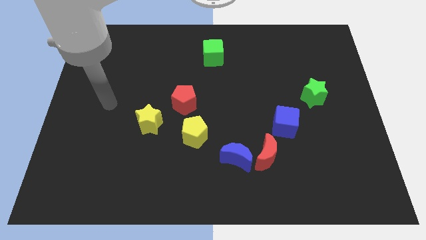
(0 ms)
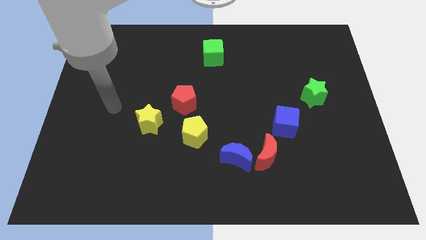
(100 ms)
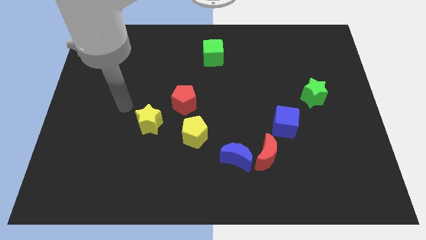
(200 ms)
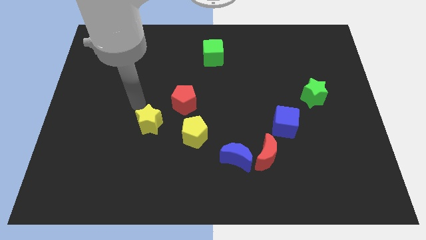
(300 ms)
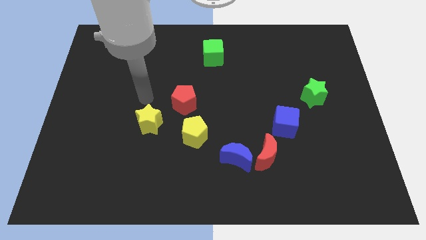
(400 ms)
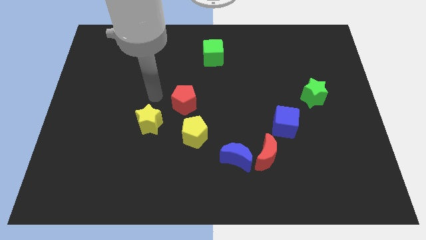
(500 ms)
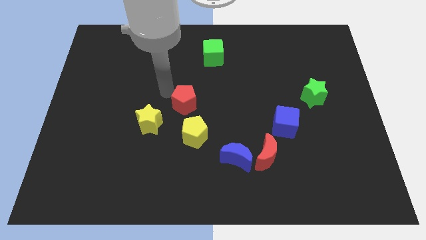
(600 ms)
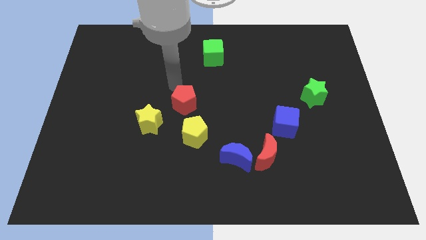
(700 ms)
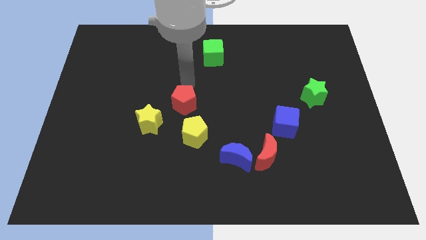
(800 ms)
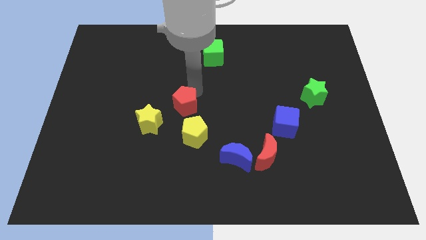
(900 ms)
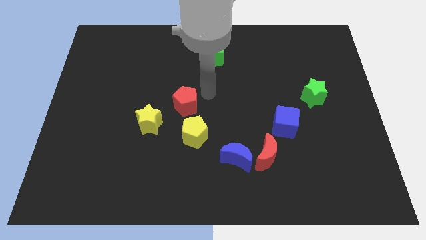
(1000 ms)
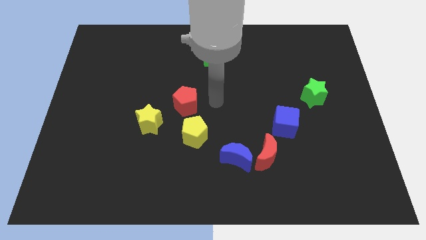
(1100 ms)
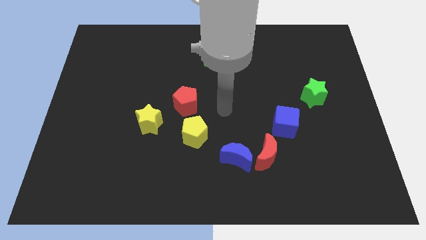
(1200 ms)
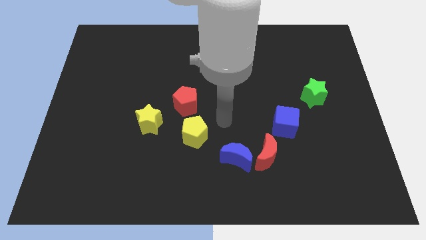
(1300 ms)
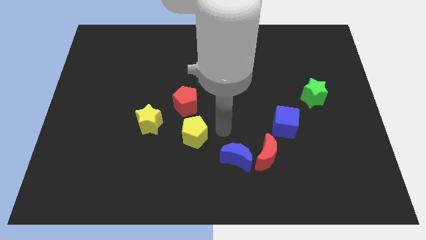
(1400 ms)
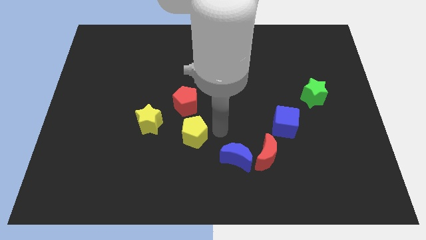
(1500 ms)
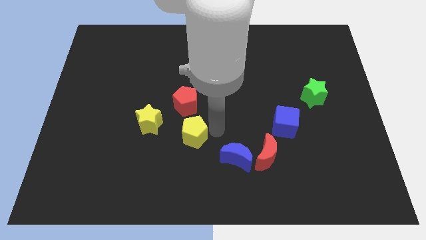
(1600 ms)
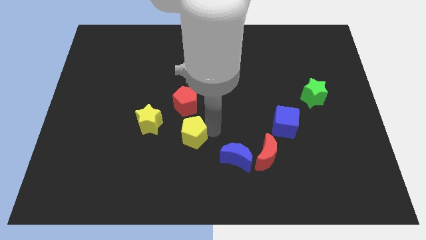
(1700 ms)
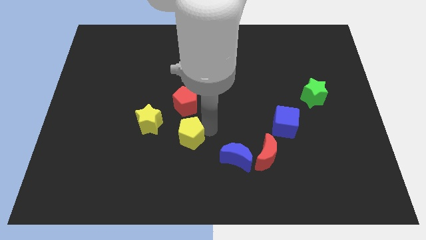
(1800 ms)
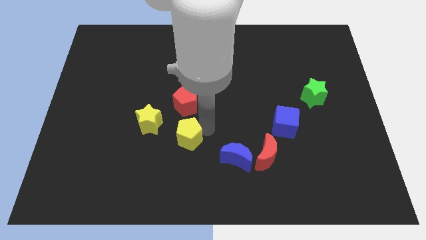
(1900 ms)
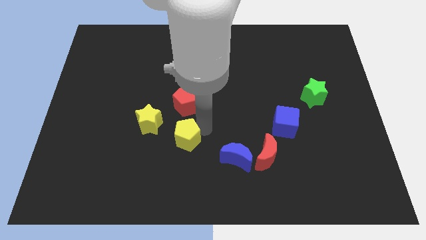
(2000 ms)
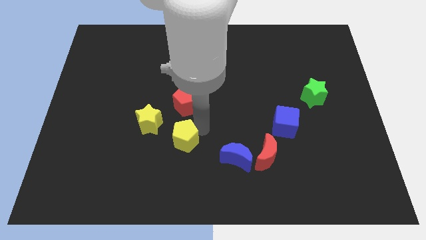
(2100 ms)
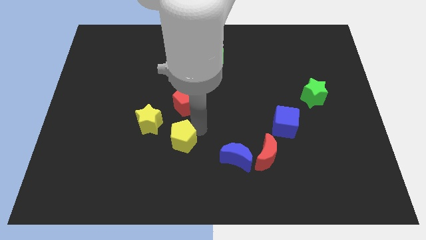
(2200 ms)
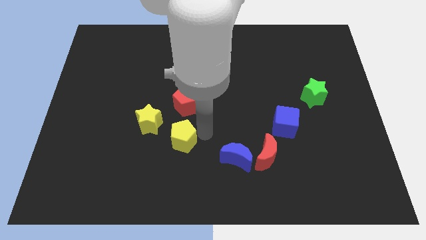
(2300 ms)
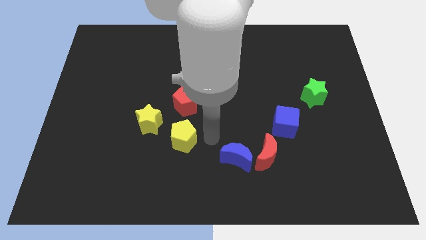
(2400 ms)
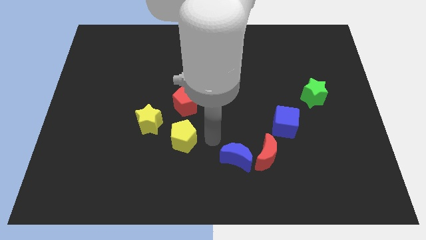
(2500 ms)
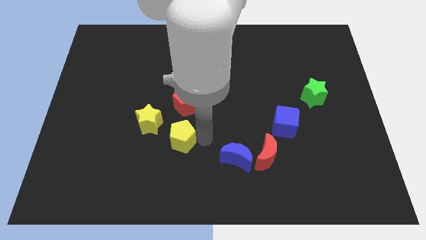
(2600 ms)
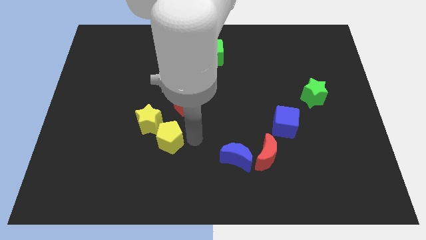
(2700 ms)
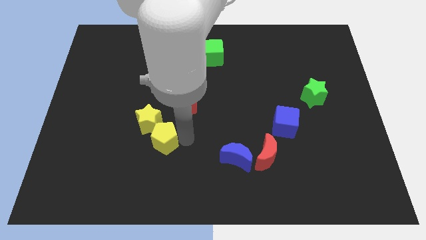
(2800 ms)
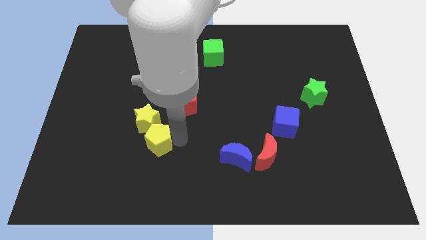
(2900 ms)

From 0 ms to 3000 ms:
slide the yellow pentagon somewhat to the left

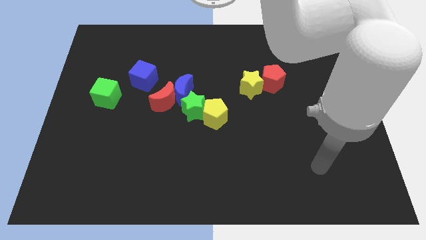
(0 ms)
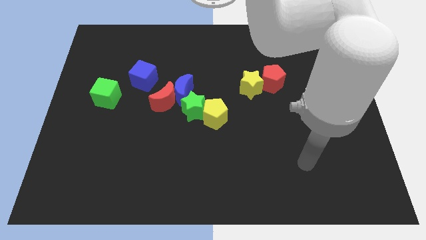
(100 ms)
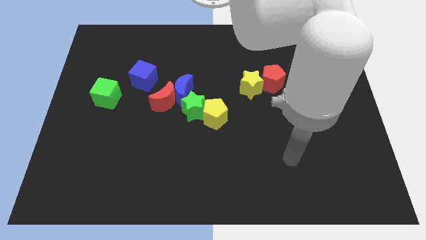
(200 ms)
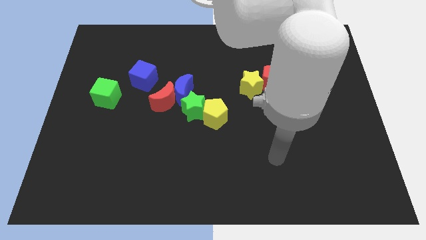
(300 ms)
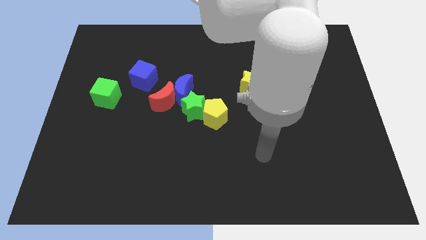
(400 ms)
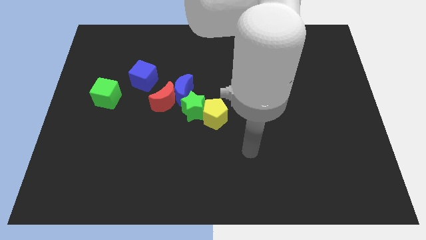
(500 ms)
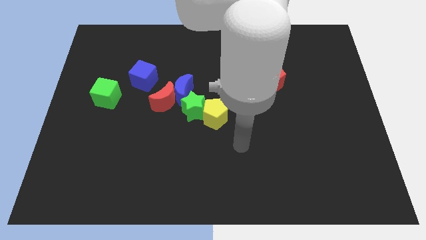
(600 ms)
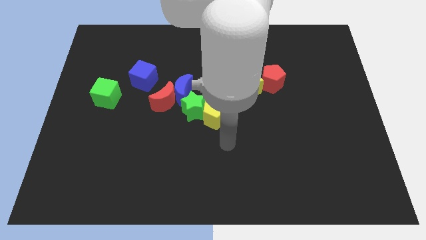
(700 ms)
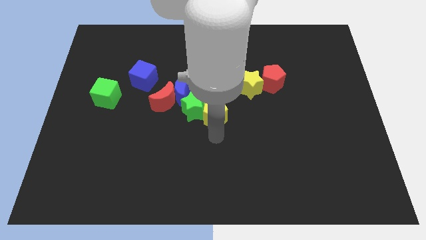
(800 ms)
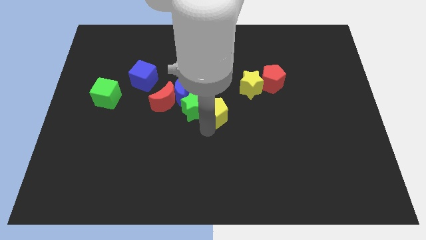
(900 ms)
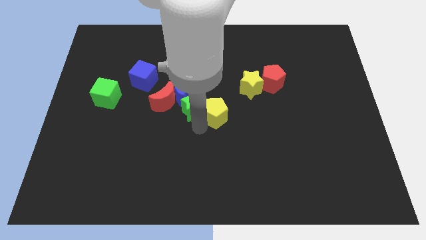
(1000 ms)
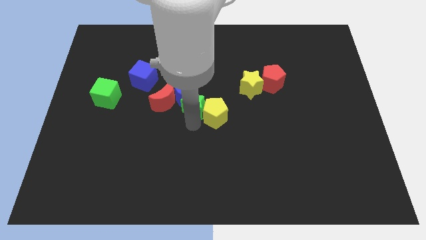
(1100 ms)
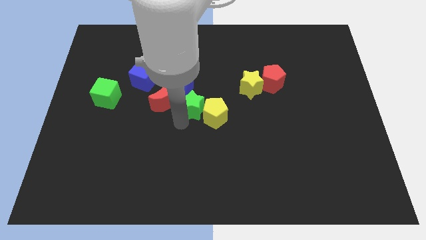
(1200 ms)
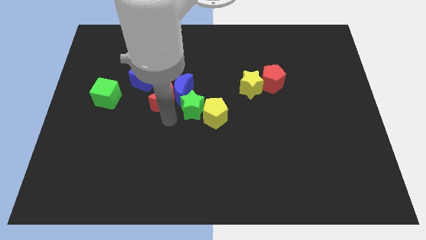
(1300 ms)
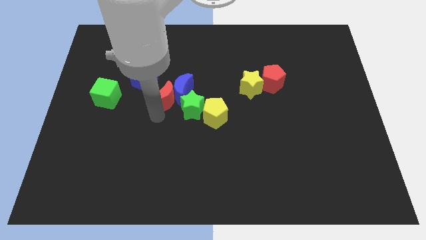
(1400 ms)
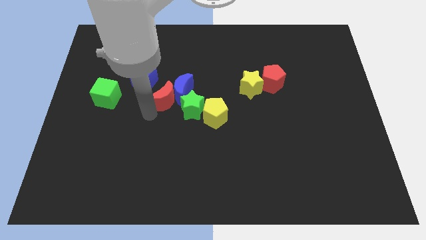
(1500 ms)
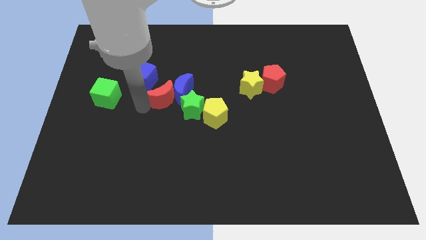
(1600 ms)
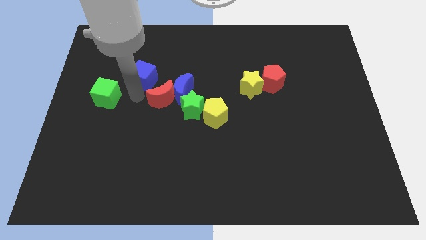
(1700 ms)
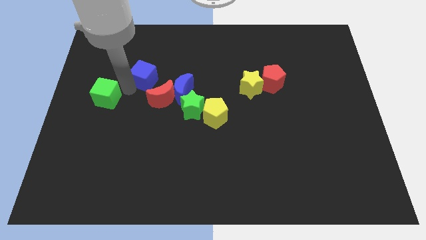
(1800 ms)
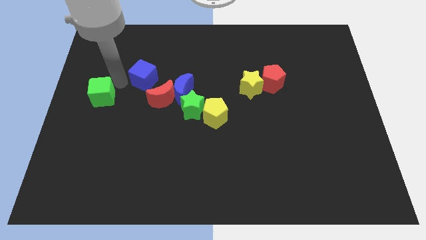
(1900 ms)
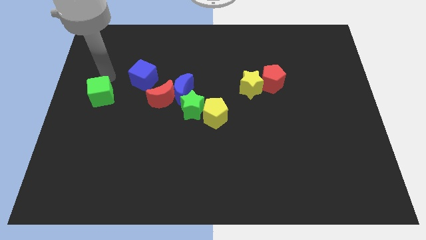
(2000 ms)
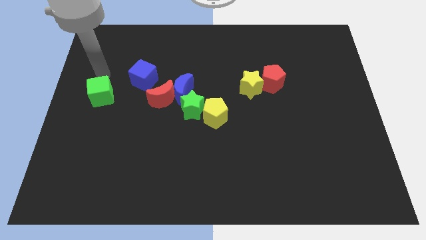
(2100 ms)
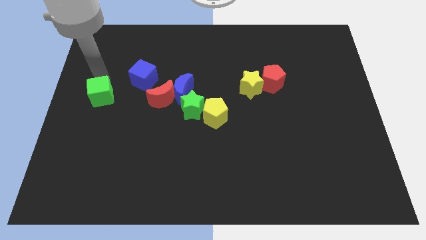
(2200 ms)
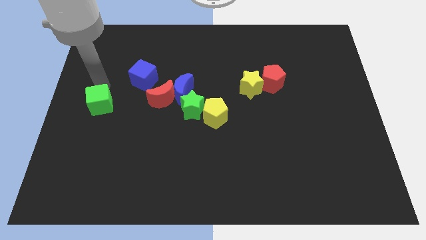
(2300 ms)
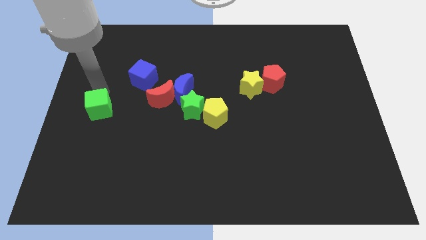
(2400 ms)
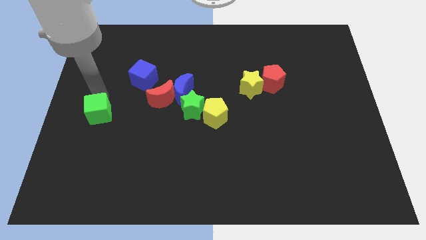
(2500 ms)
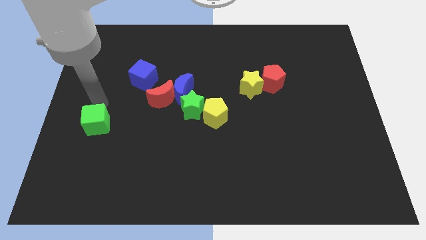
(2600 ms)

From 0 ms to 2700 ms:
slightly slide the green cube downwards

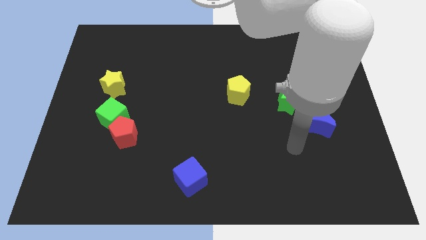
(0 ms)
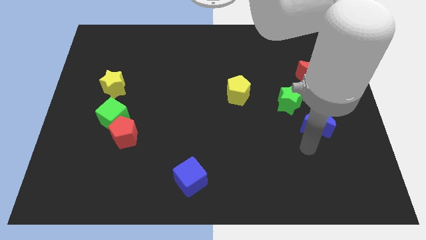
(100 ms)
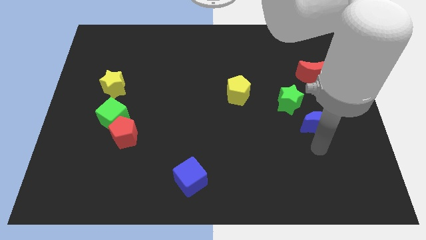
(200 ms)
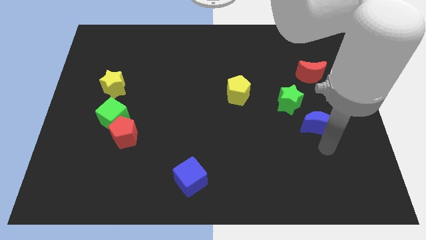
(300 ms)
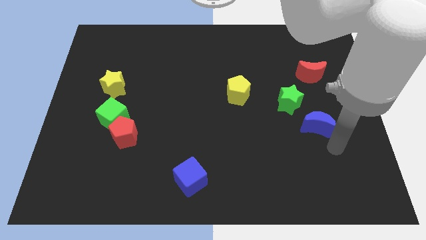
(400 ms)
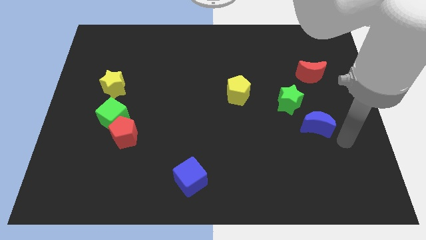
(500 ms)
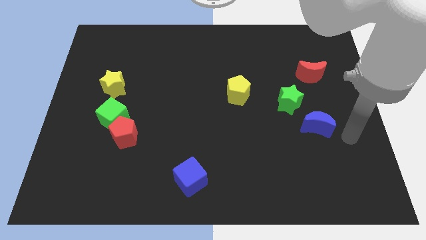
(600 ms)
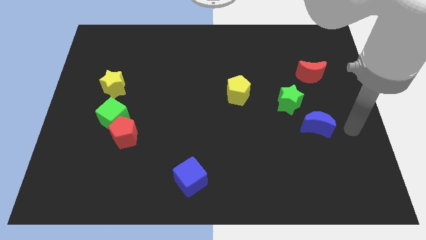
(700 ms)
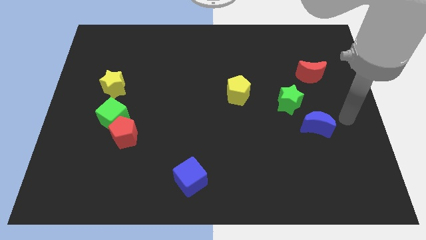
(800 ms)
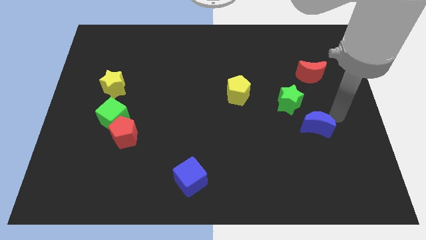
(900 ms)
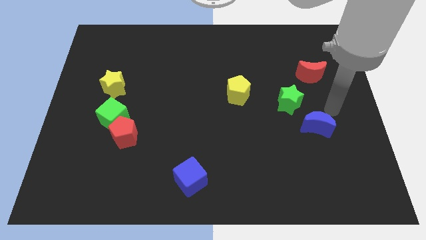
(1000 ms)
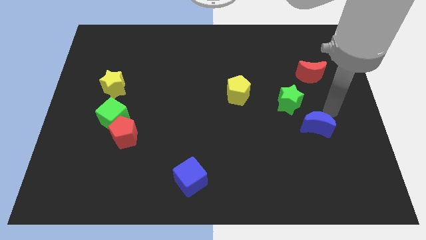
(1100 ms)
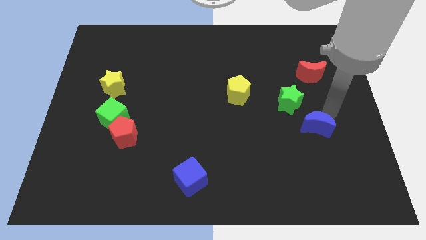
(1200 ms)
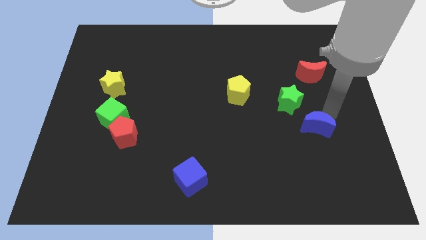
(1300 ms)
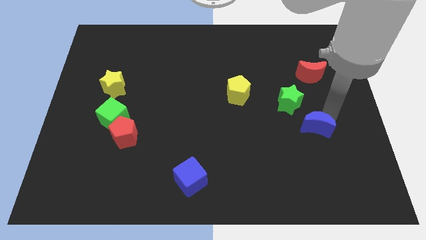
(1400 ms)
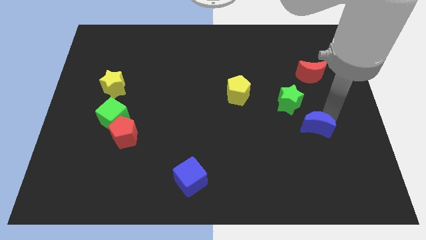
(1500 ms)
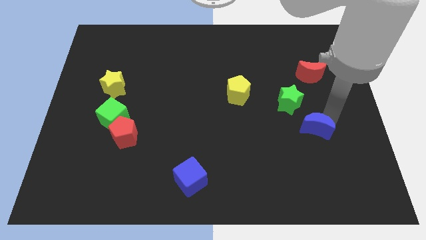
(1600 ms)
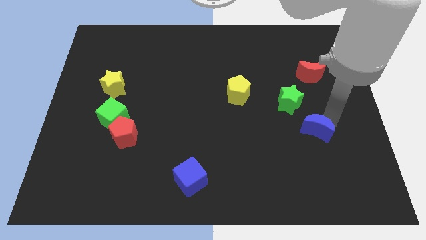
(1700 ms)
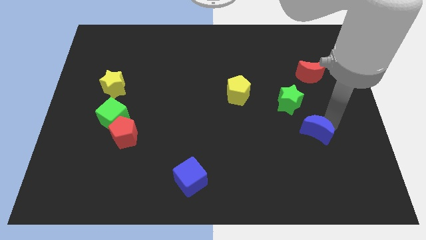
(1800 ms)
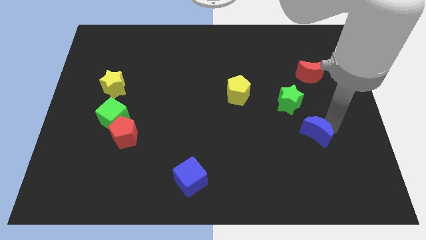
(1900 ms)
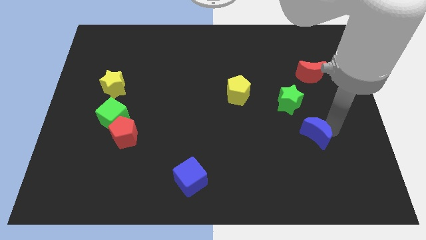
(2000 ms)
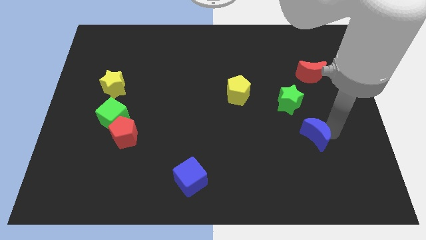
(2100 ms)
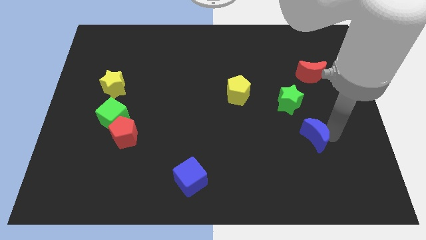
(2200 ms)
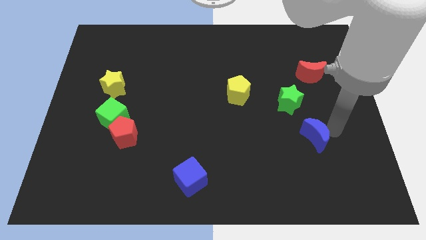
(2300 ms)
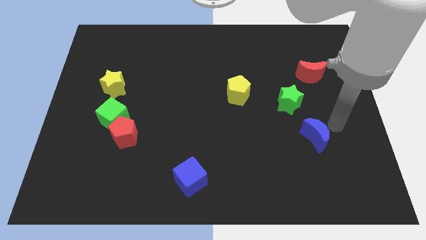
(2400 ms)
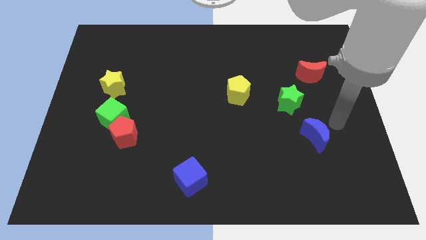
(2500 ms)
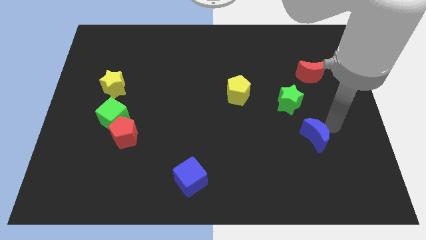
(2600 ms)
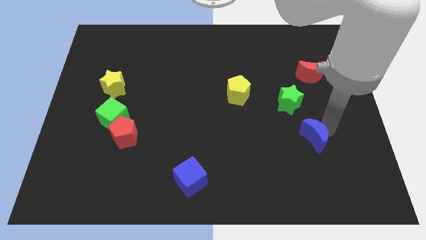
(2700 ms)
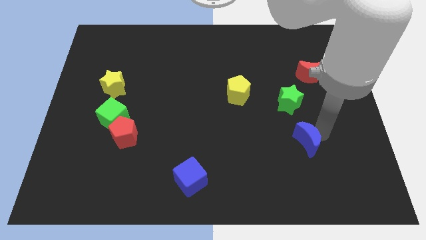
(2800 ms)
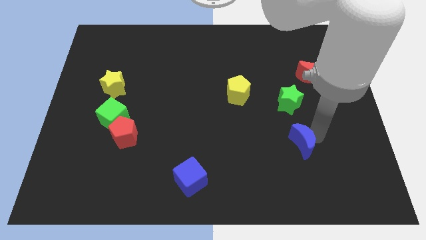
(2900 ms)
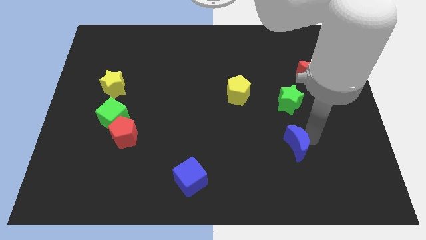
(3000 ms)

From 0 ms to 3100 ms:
push the blue moon downwards and to the left diagonally slightly
